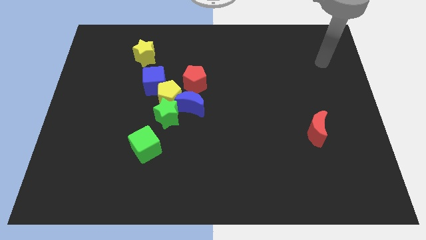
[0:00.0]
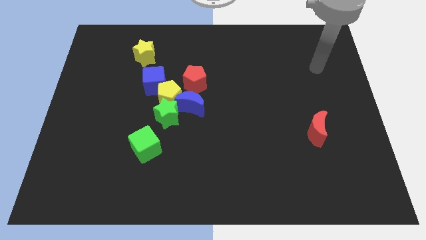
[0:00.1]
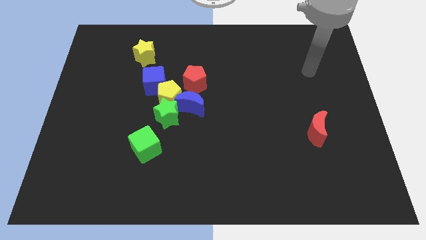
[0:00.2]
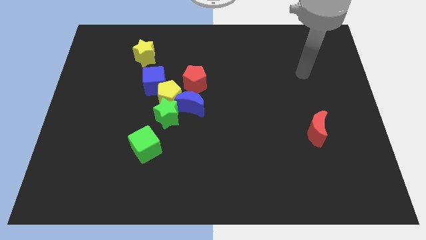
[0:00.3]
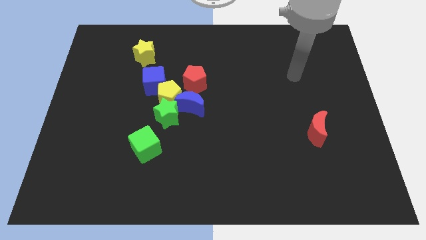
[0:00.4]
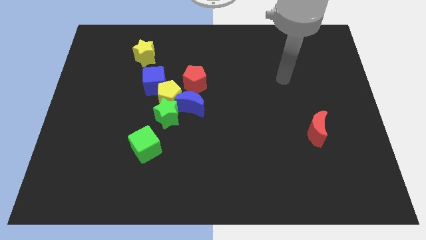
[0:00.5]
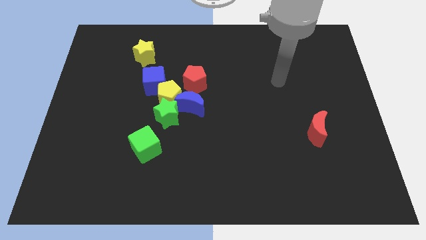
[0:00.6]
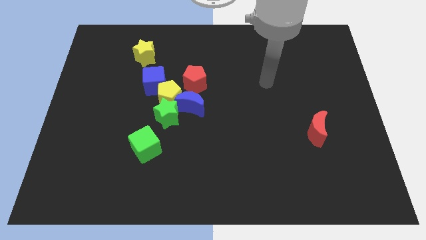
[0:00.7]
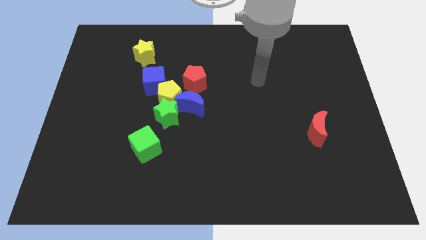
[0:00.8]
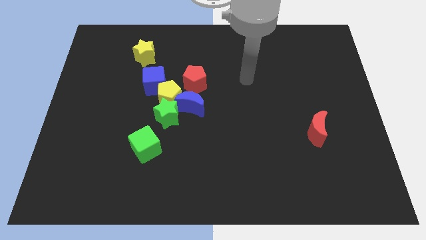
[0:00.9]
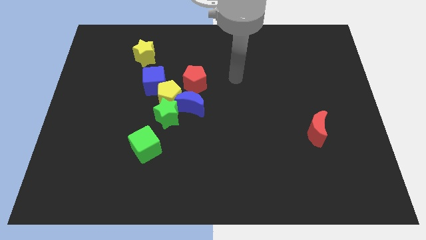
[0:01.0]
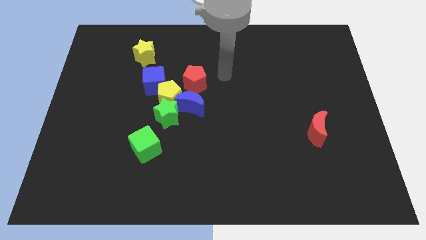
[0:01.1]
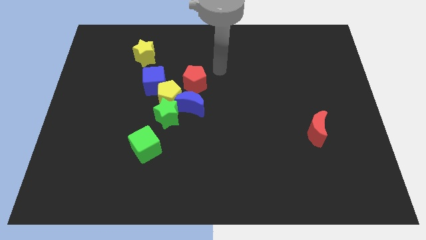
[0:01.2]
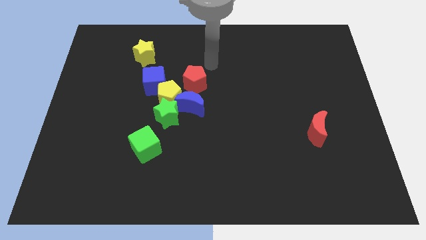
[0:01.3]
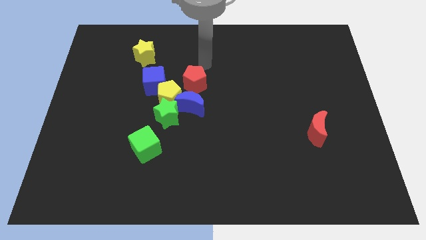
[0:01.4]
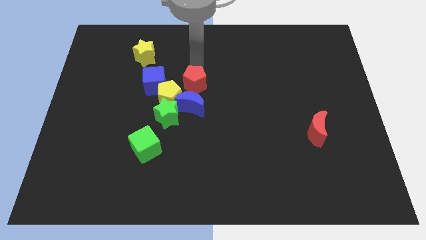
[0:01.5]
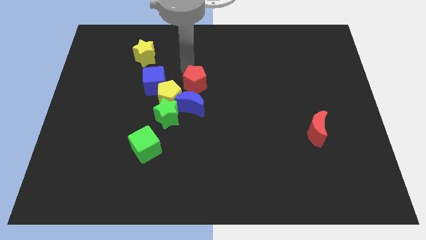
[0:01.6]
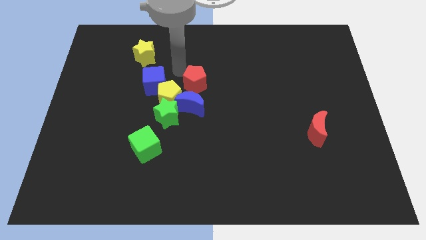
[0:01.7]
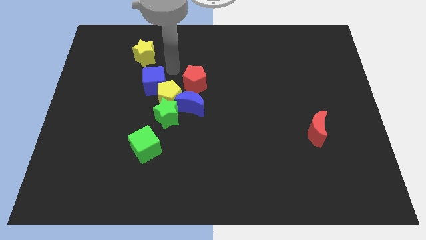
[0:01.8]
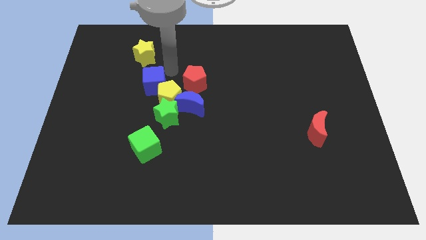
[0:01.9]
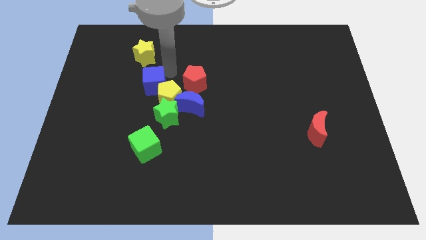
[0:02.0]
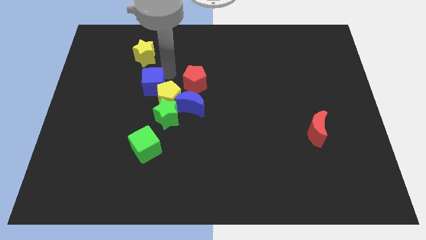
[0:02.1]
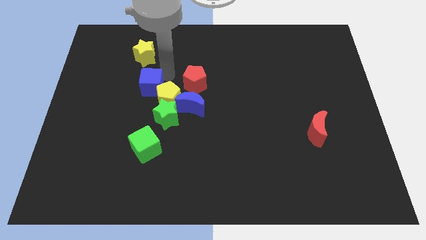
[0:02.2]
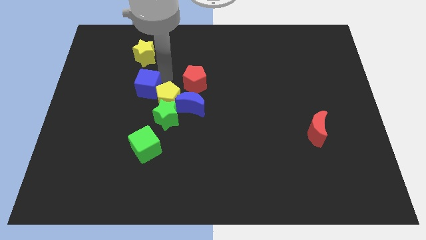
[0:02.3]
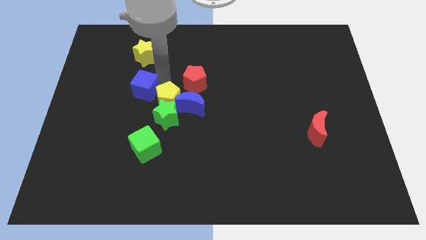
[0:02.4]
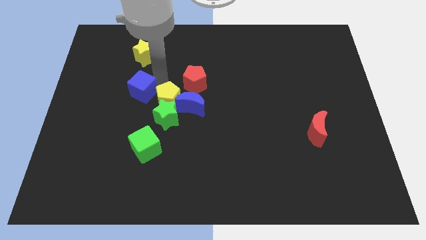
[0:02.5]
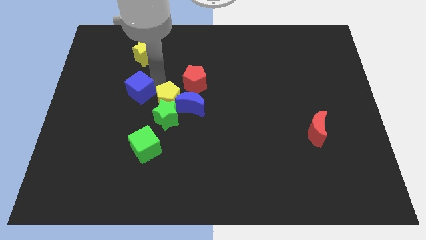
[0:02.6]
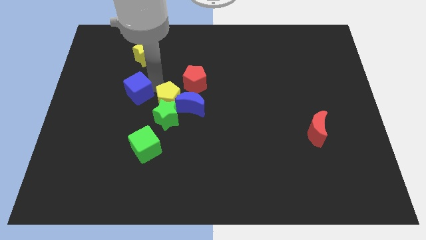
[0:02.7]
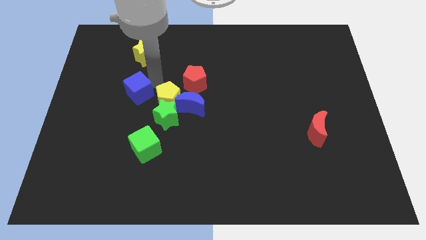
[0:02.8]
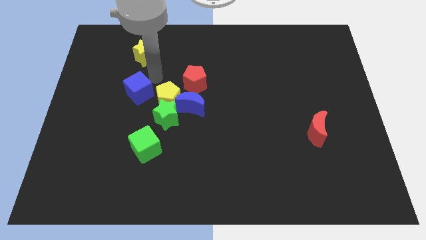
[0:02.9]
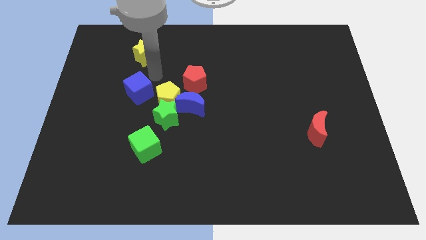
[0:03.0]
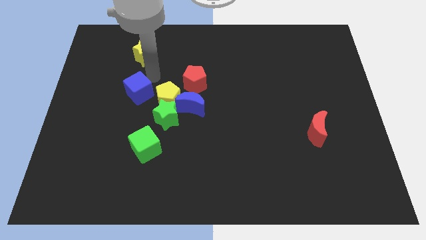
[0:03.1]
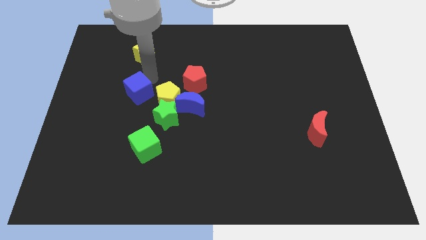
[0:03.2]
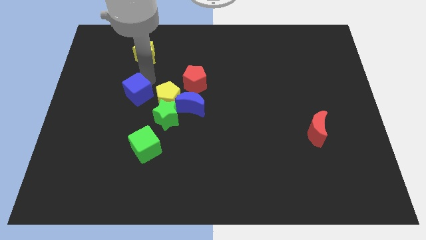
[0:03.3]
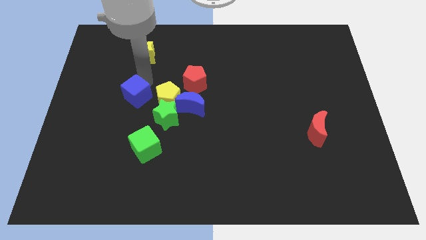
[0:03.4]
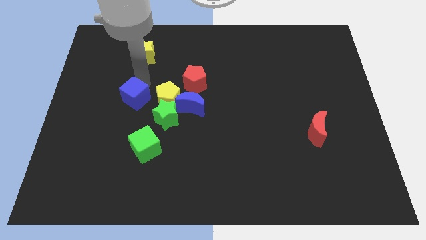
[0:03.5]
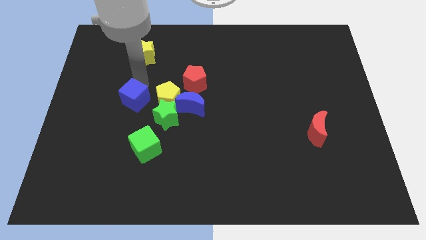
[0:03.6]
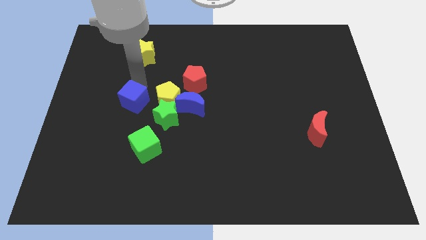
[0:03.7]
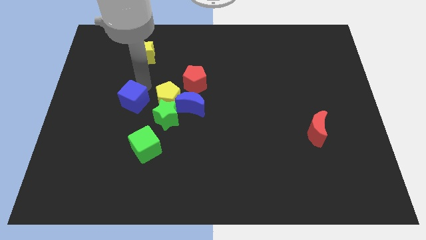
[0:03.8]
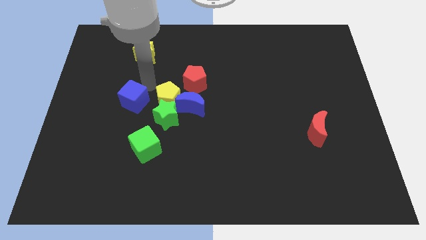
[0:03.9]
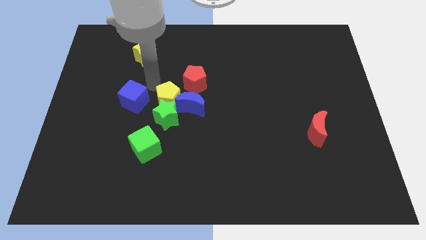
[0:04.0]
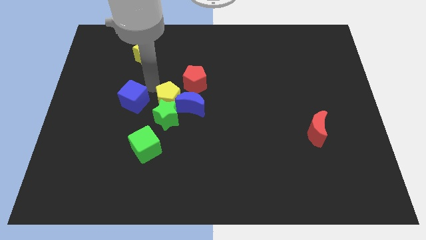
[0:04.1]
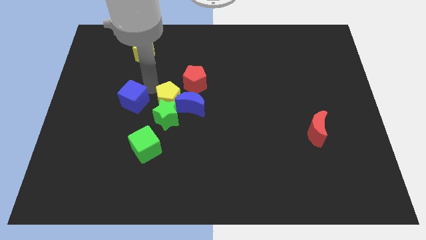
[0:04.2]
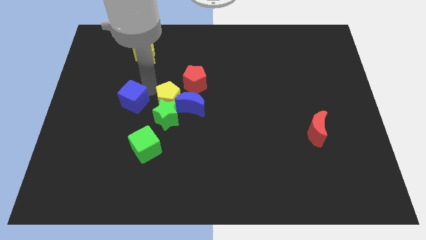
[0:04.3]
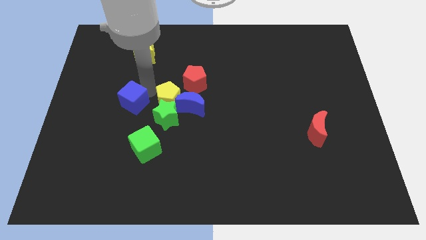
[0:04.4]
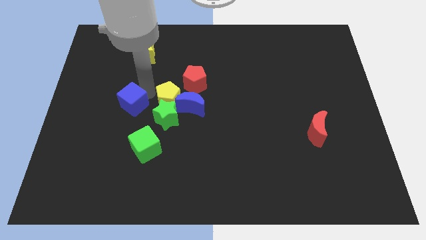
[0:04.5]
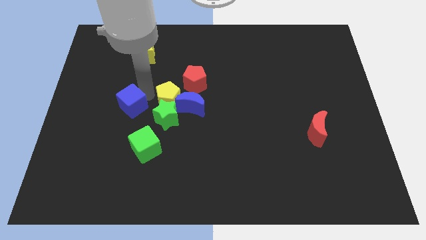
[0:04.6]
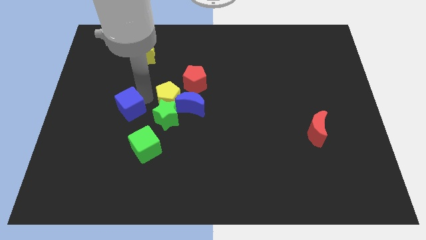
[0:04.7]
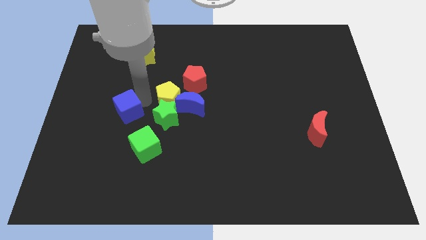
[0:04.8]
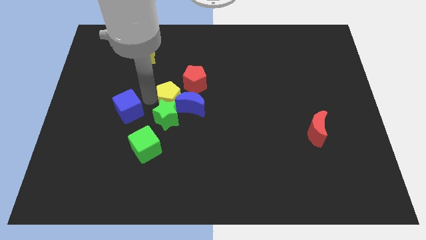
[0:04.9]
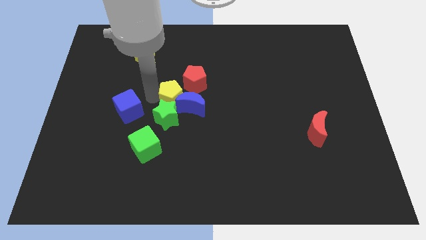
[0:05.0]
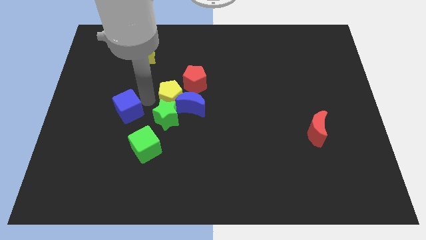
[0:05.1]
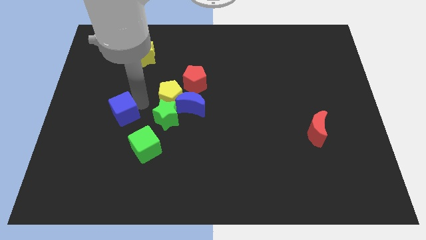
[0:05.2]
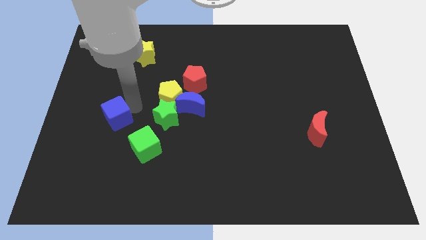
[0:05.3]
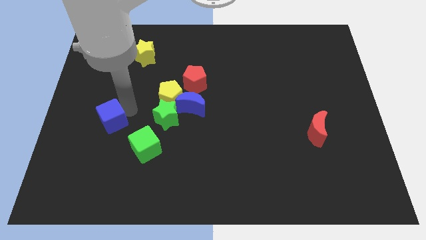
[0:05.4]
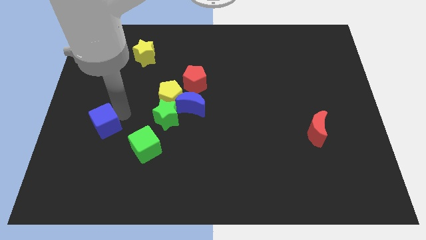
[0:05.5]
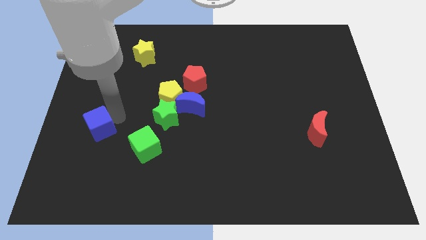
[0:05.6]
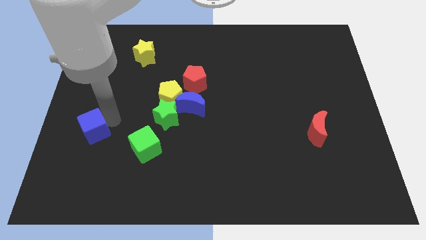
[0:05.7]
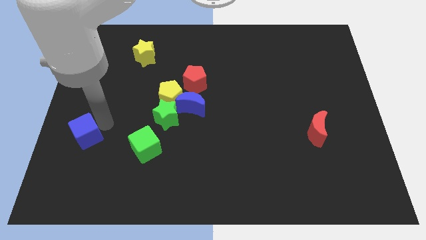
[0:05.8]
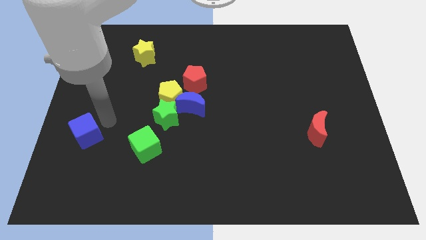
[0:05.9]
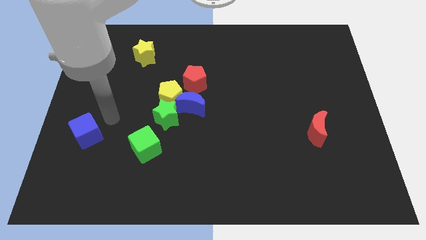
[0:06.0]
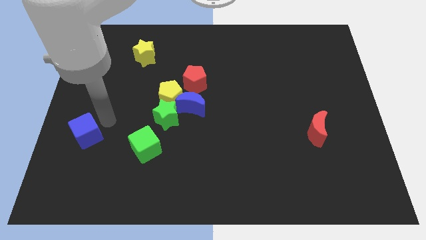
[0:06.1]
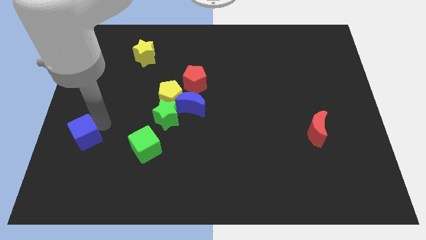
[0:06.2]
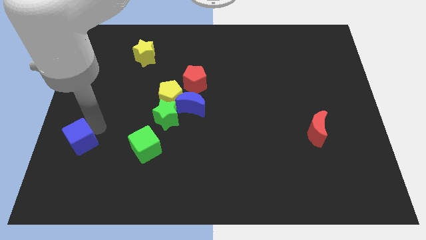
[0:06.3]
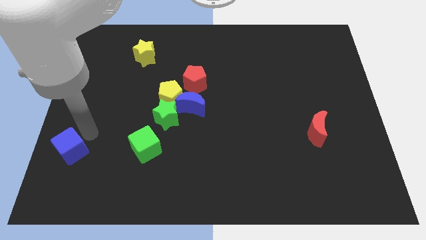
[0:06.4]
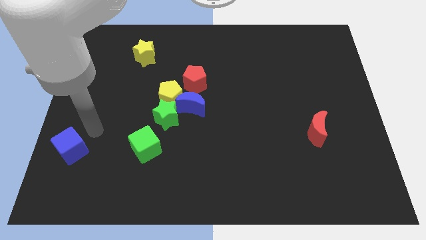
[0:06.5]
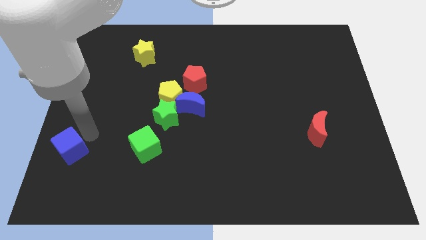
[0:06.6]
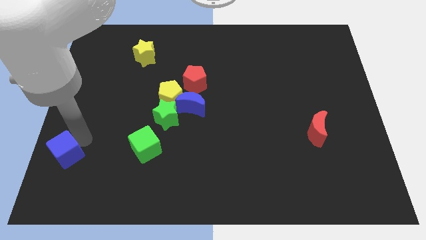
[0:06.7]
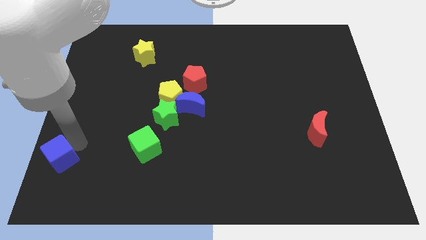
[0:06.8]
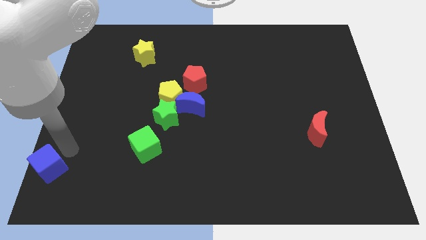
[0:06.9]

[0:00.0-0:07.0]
move the blue cube to the bottom left of the board

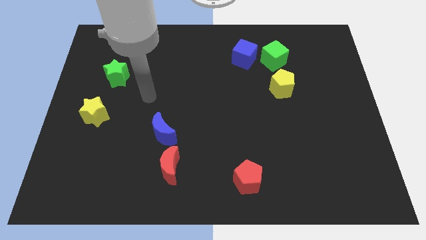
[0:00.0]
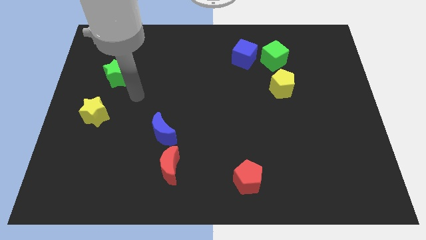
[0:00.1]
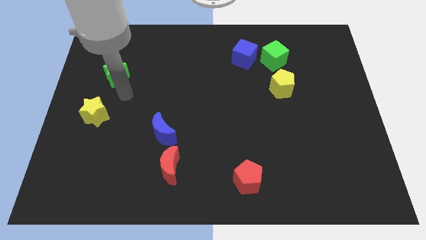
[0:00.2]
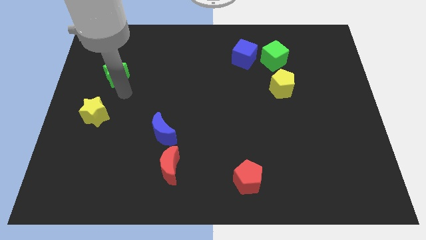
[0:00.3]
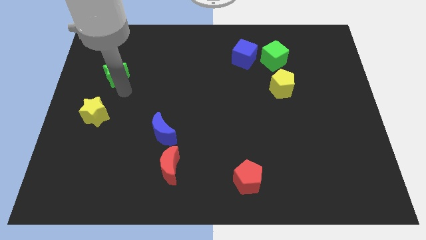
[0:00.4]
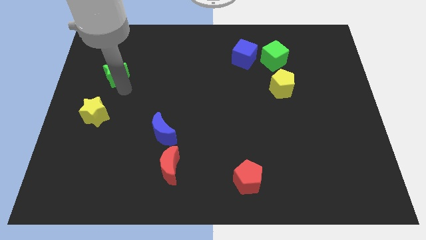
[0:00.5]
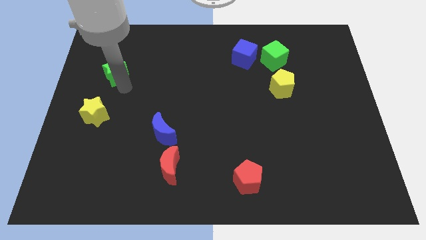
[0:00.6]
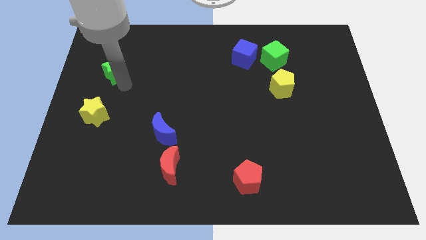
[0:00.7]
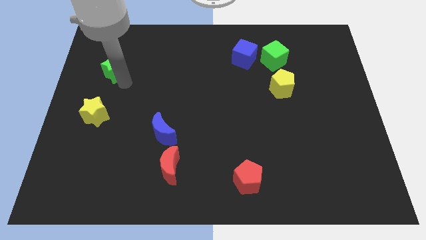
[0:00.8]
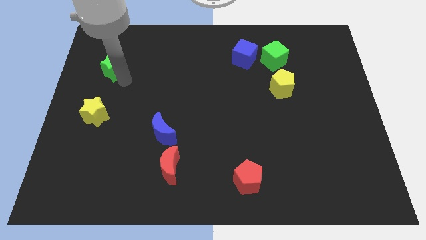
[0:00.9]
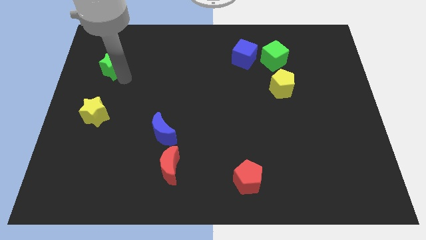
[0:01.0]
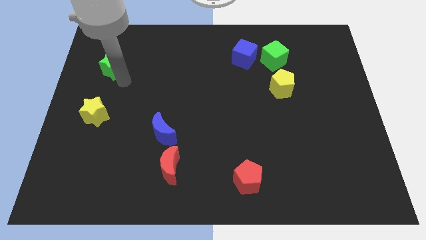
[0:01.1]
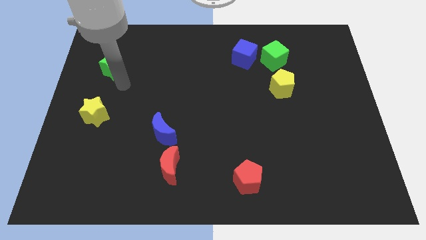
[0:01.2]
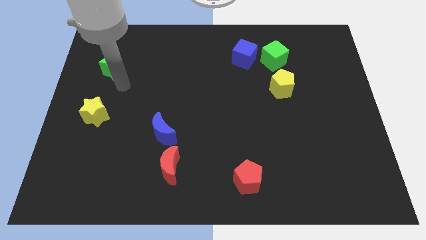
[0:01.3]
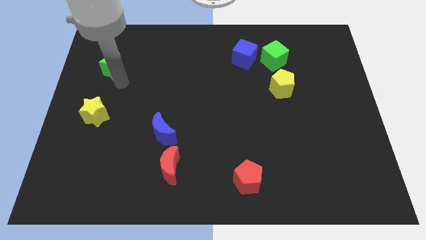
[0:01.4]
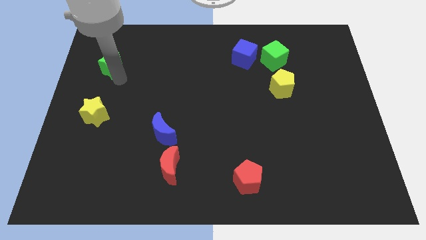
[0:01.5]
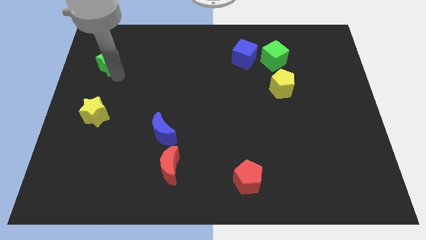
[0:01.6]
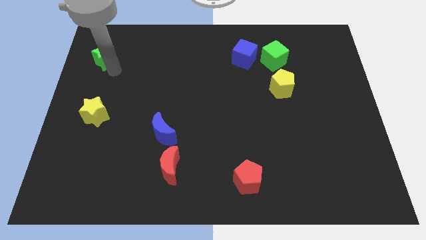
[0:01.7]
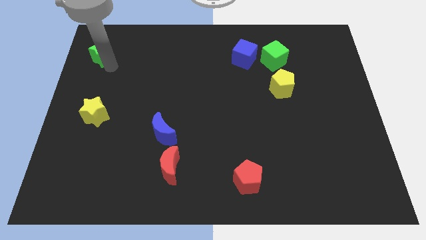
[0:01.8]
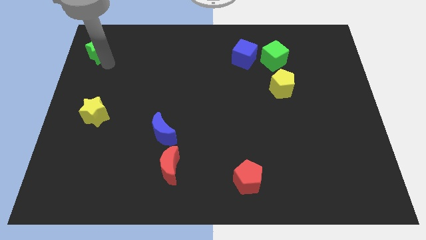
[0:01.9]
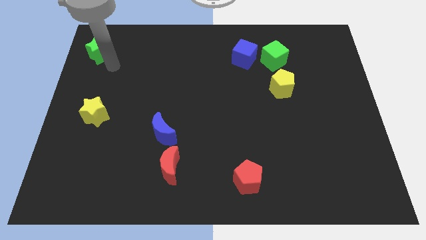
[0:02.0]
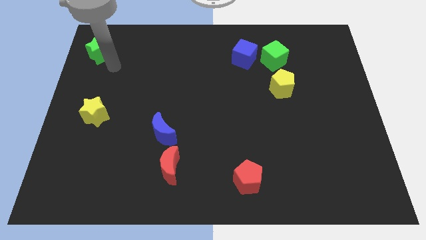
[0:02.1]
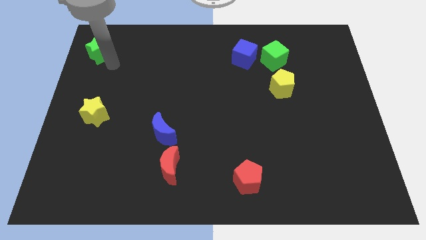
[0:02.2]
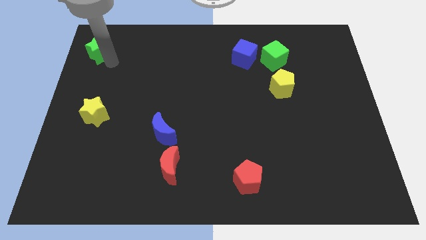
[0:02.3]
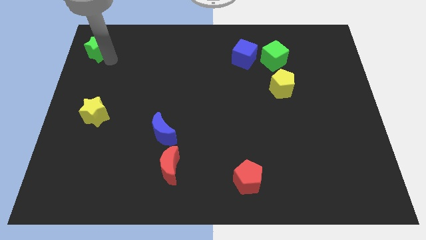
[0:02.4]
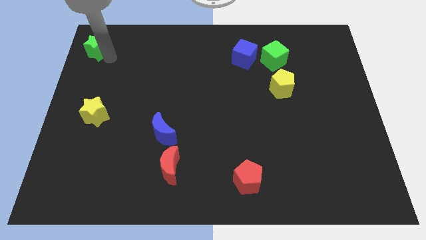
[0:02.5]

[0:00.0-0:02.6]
push the green star to the upper left corner
